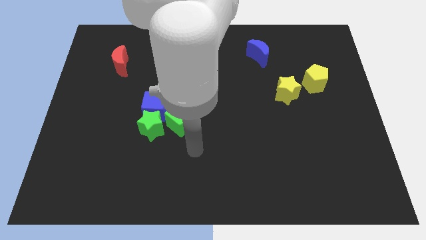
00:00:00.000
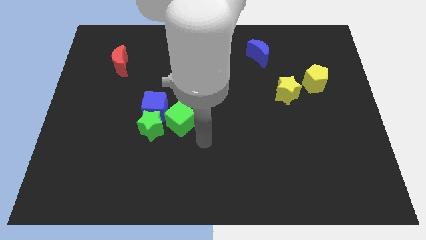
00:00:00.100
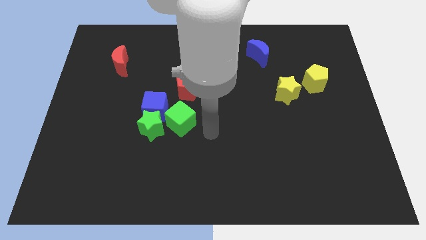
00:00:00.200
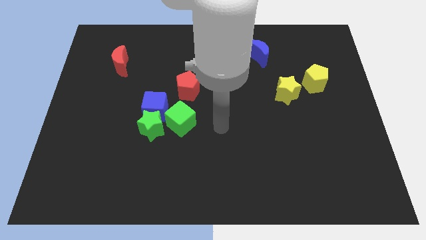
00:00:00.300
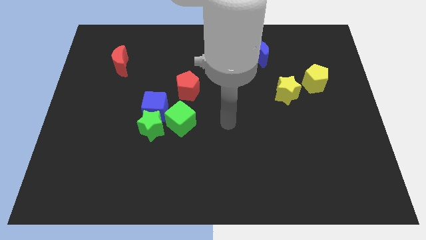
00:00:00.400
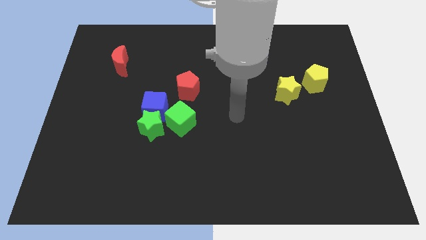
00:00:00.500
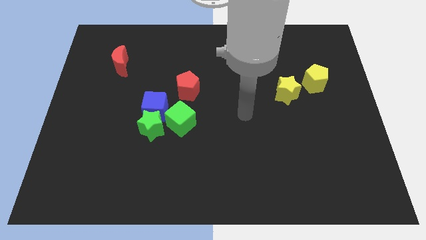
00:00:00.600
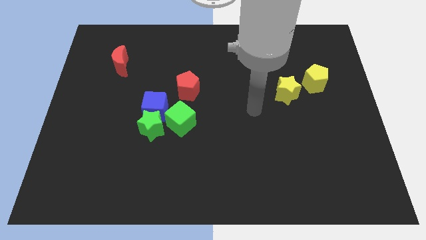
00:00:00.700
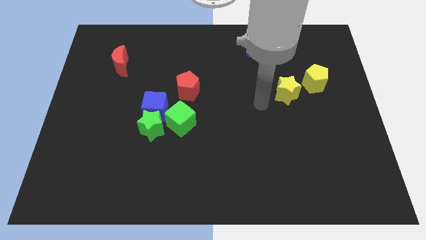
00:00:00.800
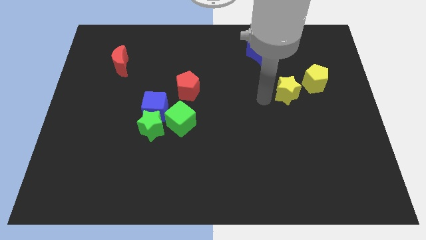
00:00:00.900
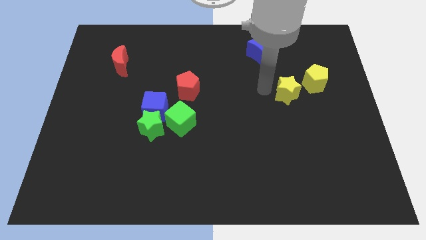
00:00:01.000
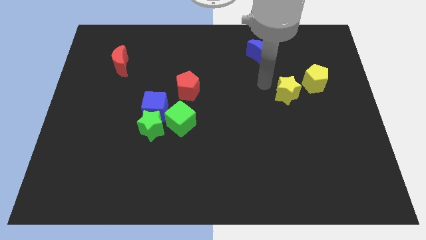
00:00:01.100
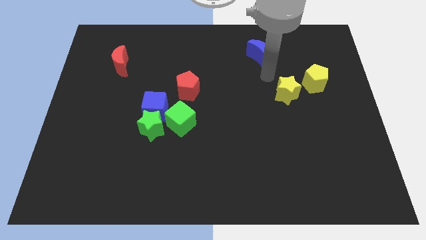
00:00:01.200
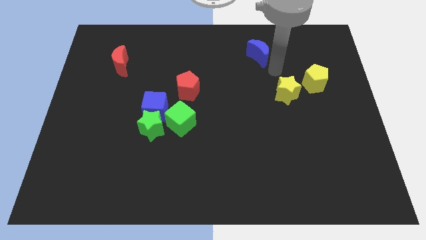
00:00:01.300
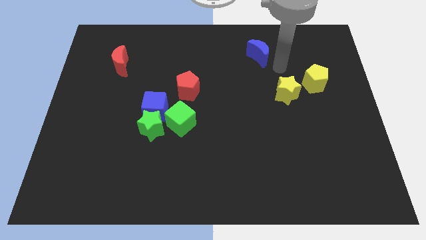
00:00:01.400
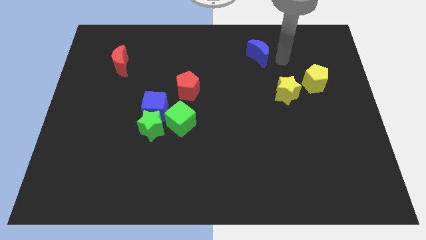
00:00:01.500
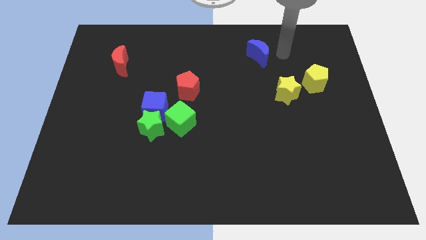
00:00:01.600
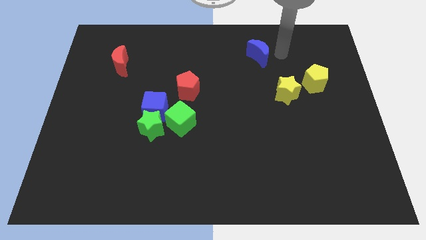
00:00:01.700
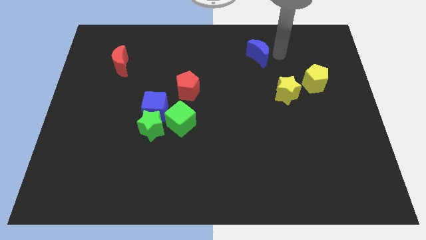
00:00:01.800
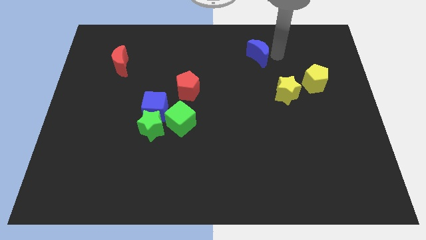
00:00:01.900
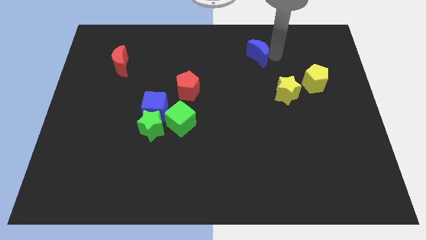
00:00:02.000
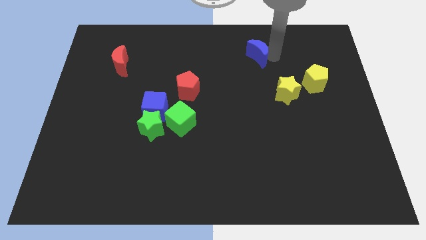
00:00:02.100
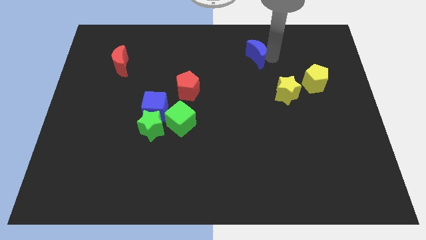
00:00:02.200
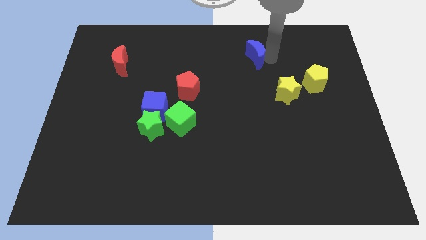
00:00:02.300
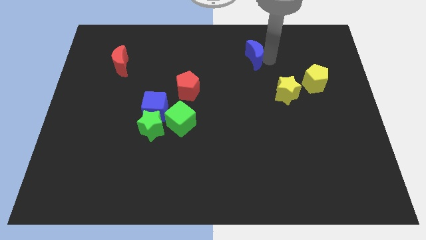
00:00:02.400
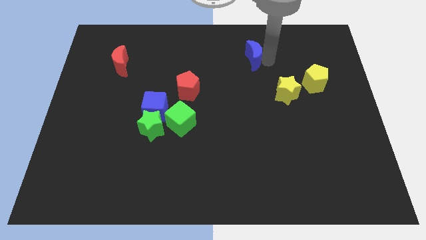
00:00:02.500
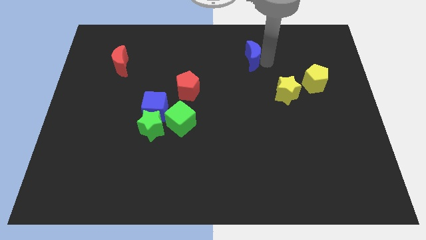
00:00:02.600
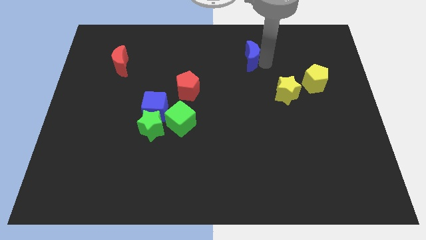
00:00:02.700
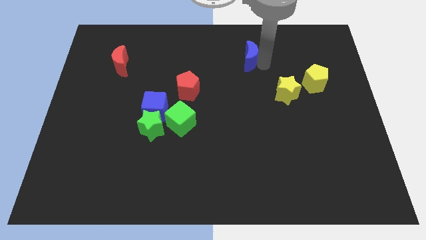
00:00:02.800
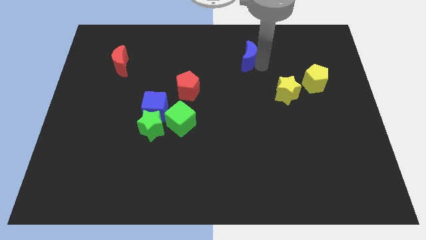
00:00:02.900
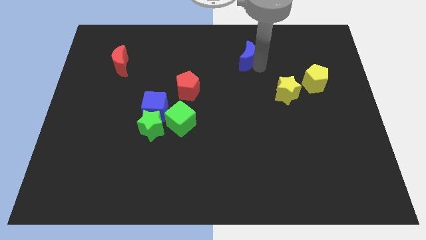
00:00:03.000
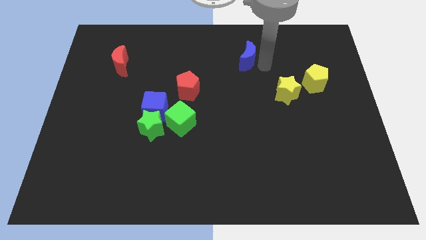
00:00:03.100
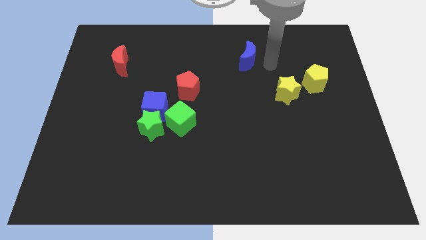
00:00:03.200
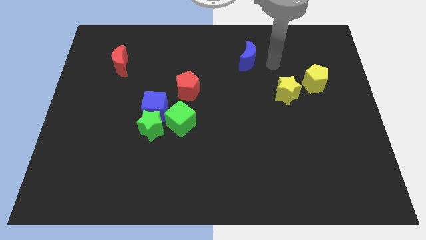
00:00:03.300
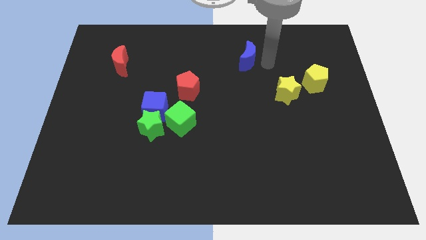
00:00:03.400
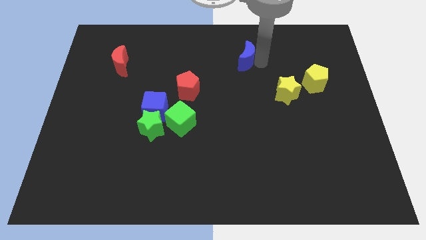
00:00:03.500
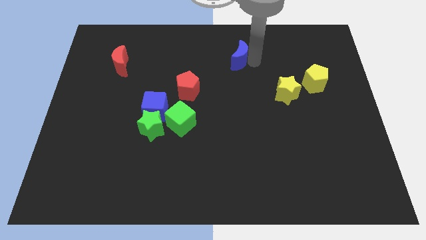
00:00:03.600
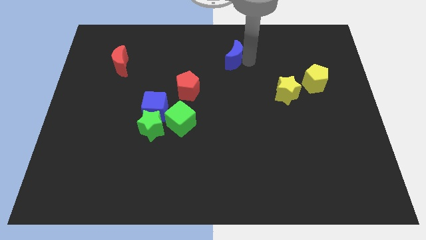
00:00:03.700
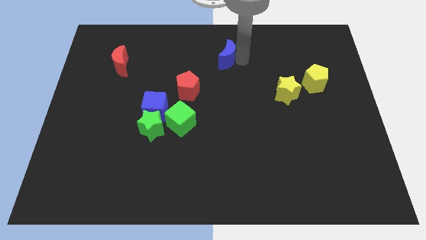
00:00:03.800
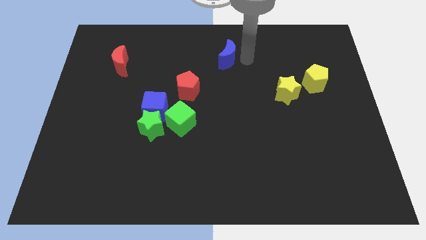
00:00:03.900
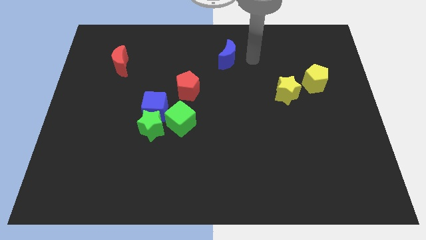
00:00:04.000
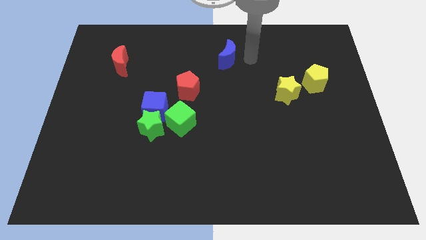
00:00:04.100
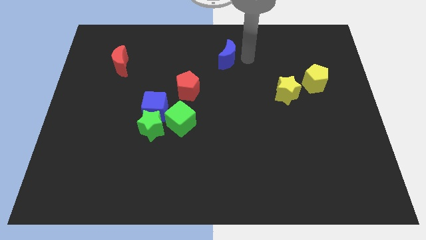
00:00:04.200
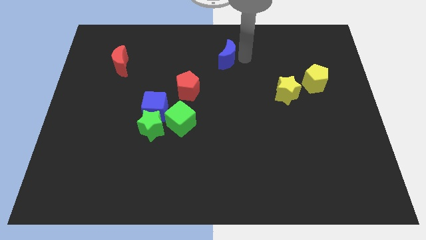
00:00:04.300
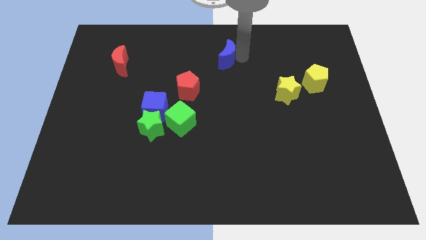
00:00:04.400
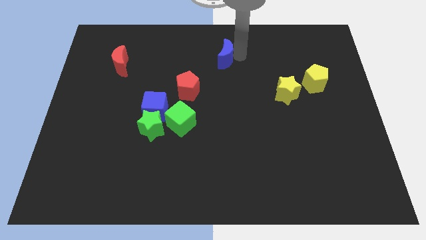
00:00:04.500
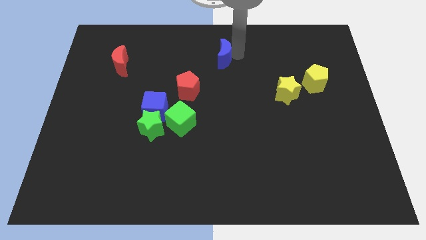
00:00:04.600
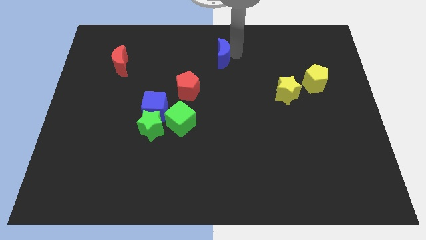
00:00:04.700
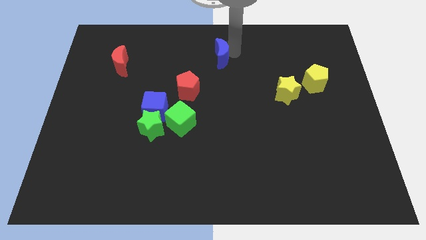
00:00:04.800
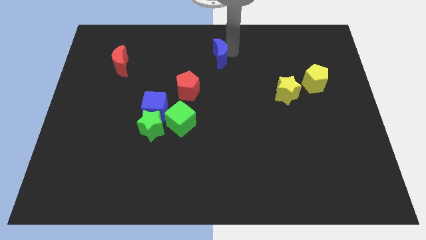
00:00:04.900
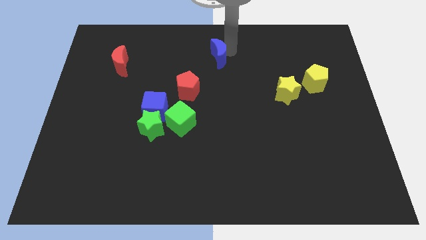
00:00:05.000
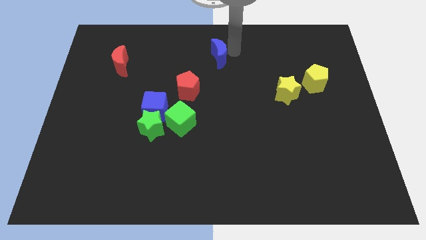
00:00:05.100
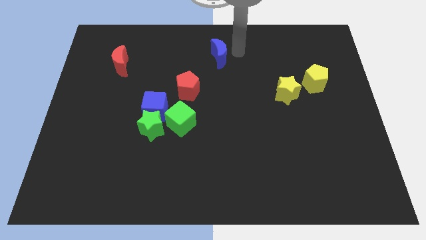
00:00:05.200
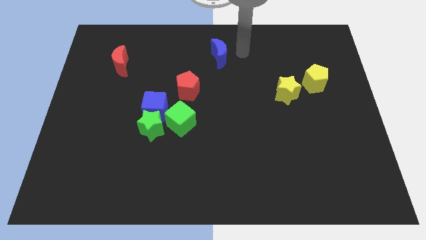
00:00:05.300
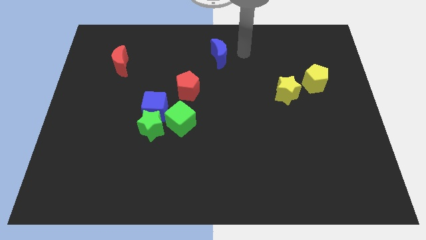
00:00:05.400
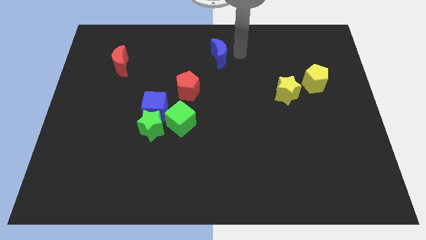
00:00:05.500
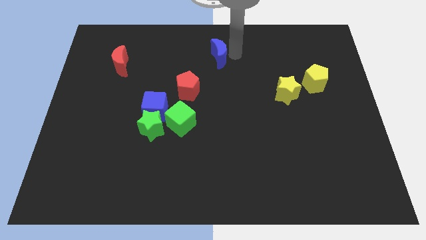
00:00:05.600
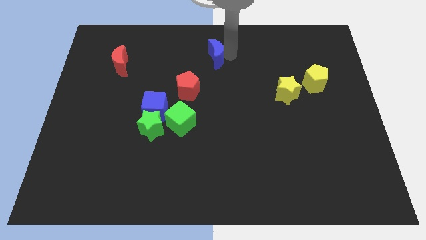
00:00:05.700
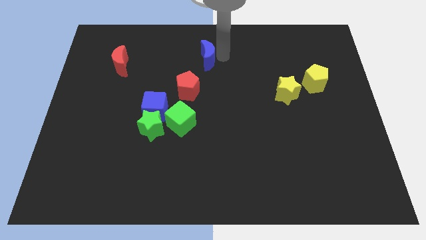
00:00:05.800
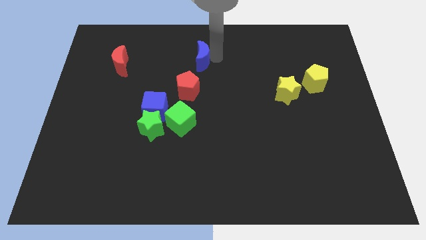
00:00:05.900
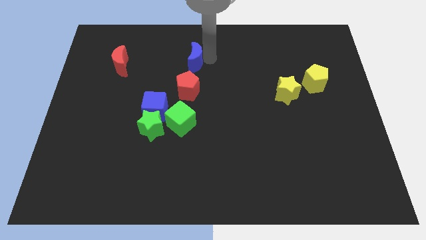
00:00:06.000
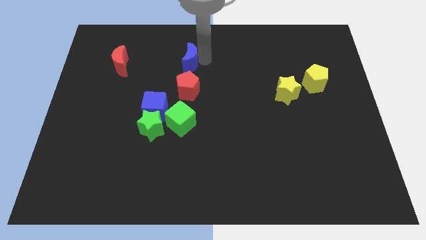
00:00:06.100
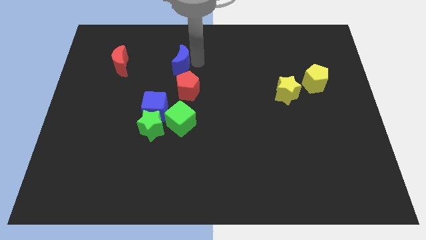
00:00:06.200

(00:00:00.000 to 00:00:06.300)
slide the blue moon left

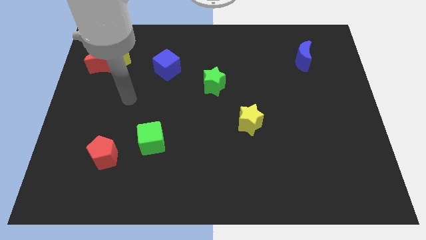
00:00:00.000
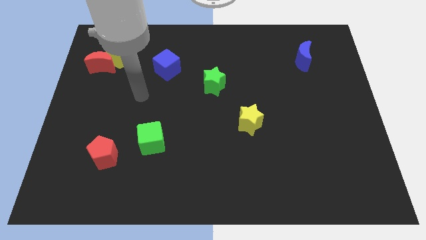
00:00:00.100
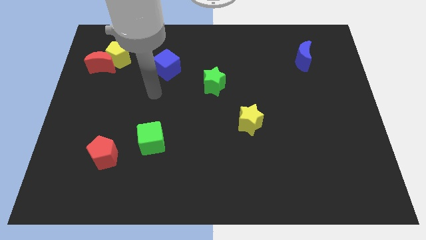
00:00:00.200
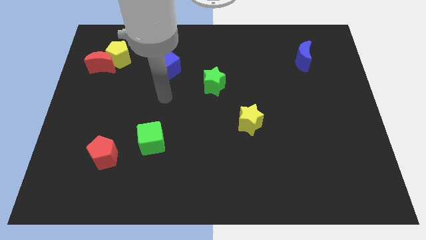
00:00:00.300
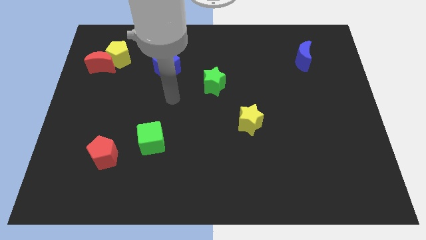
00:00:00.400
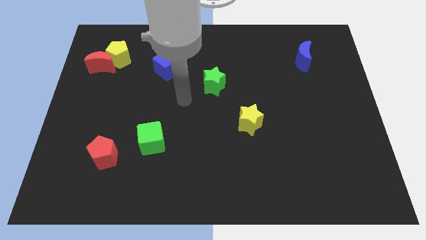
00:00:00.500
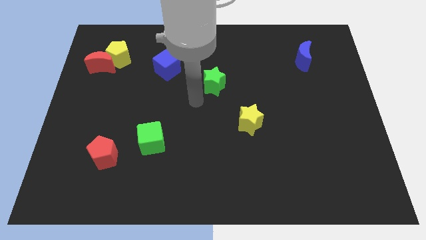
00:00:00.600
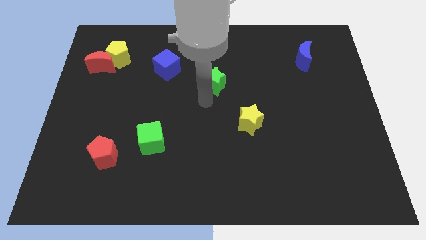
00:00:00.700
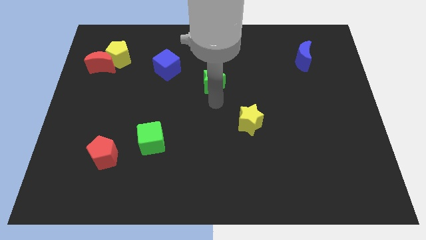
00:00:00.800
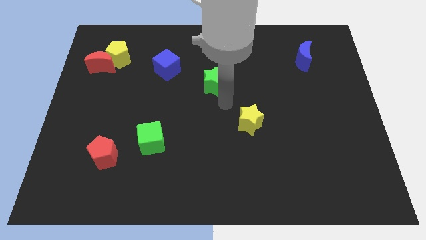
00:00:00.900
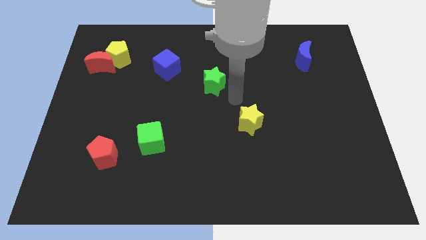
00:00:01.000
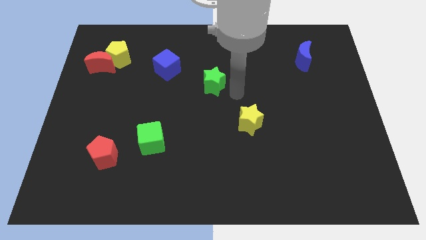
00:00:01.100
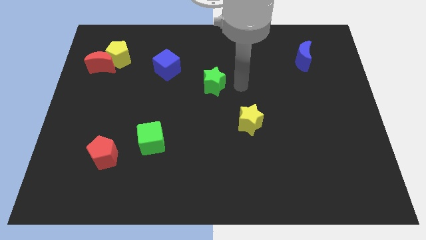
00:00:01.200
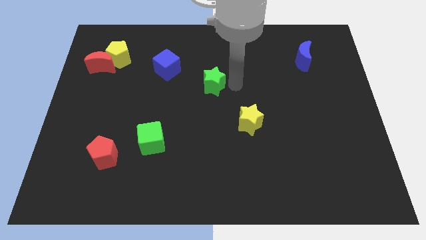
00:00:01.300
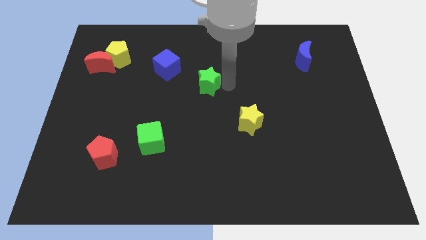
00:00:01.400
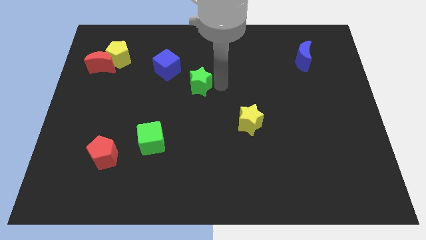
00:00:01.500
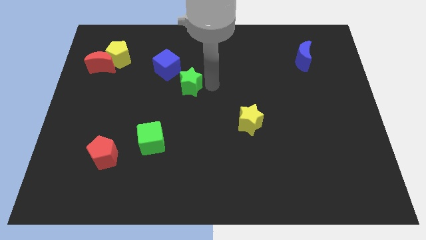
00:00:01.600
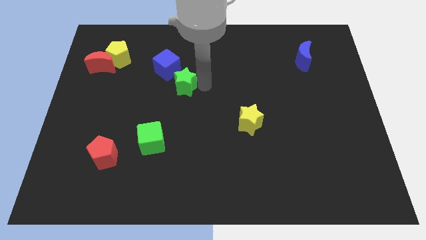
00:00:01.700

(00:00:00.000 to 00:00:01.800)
slide the green star to the left a bit

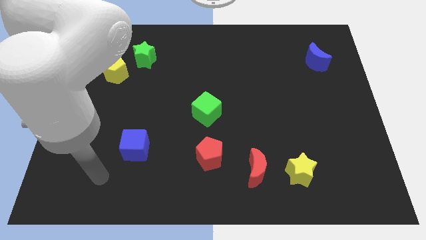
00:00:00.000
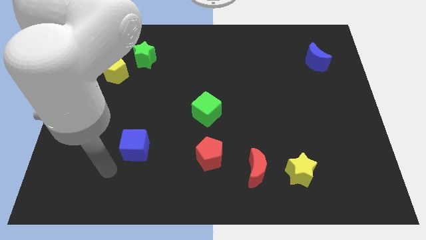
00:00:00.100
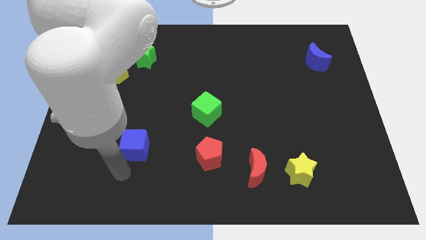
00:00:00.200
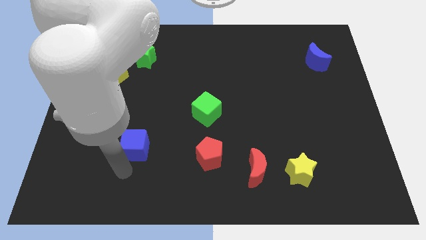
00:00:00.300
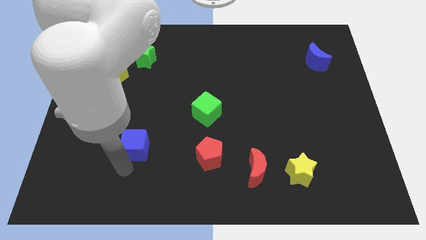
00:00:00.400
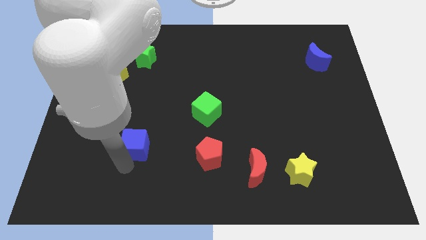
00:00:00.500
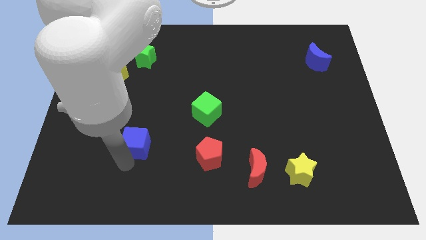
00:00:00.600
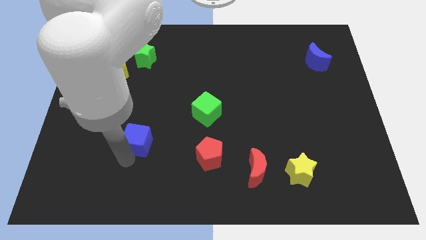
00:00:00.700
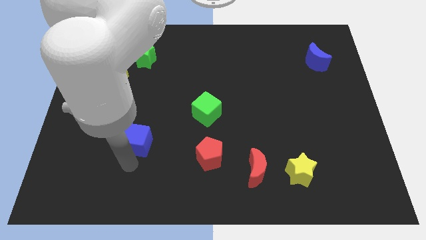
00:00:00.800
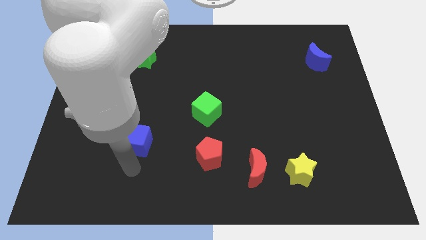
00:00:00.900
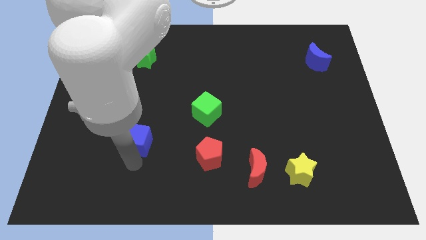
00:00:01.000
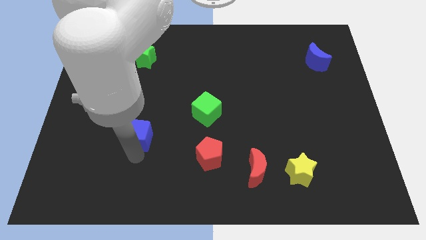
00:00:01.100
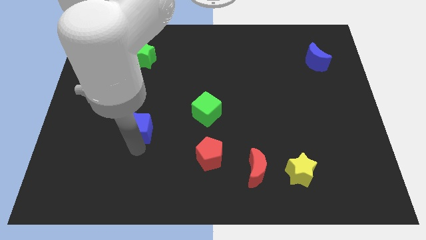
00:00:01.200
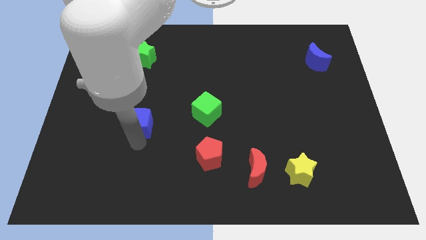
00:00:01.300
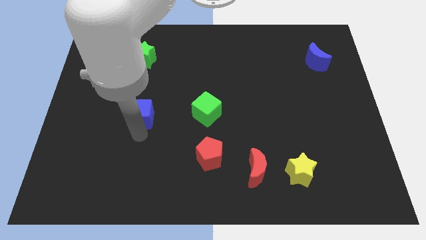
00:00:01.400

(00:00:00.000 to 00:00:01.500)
slide the blue cube a bit up
